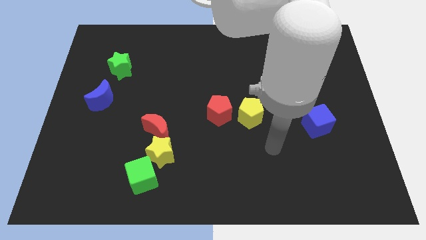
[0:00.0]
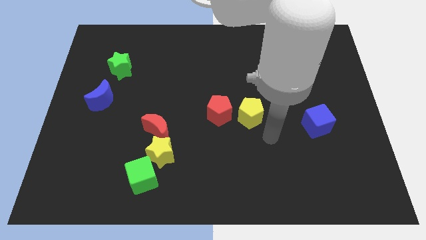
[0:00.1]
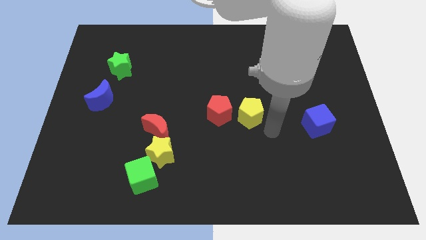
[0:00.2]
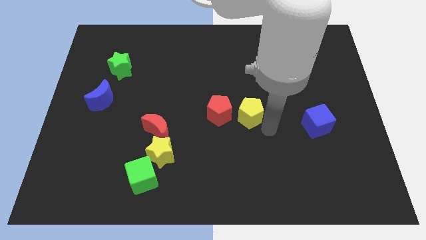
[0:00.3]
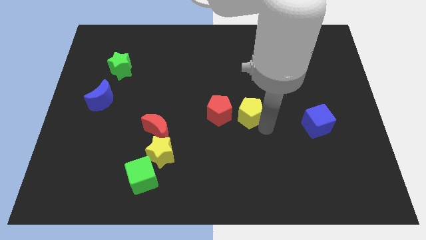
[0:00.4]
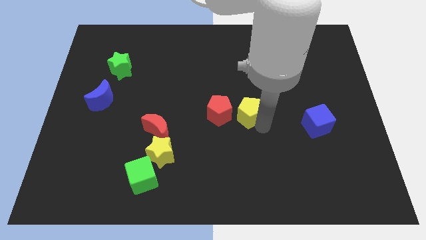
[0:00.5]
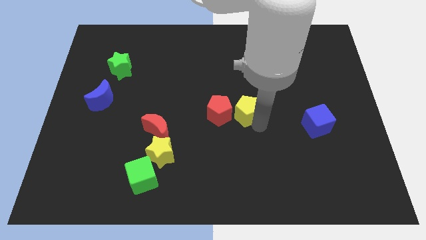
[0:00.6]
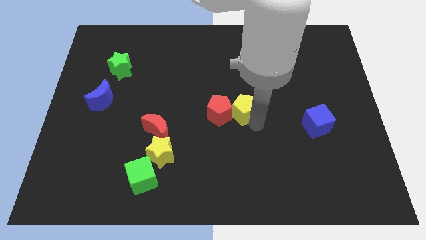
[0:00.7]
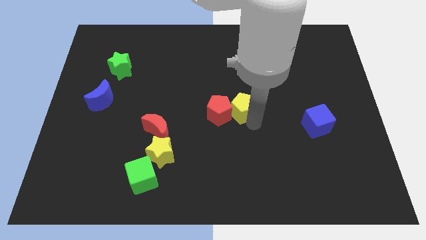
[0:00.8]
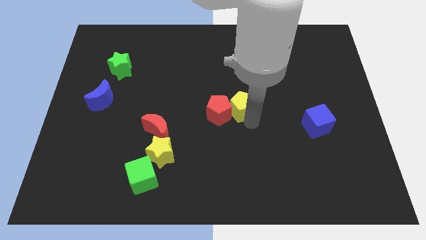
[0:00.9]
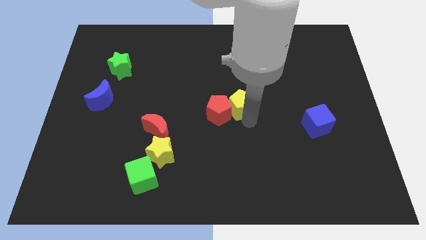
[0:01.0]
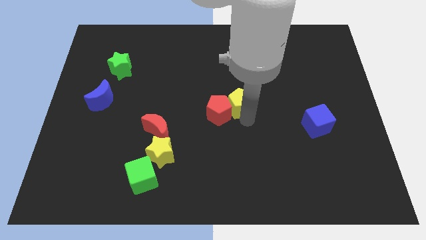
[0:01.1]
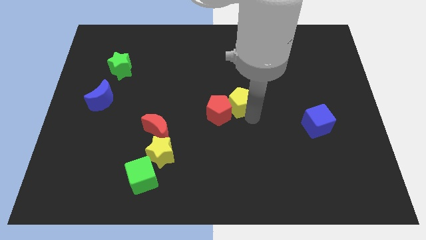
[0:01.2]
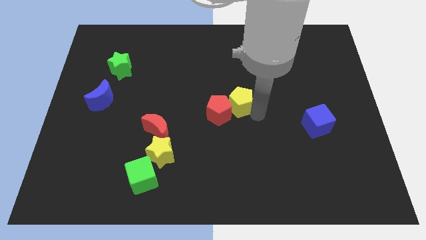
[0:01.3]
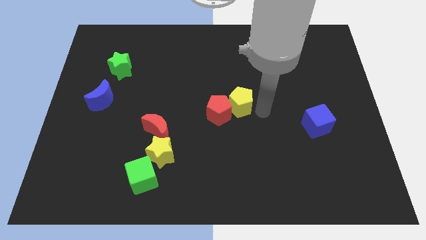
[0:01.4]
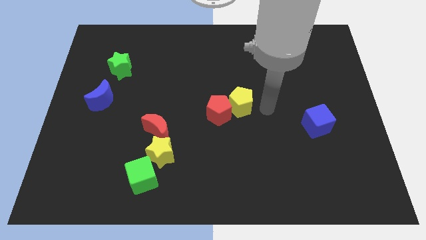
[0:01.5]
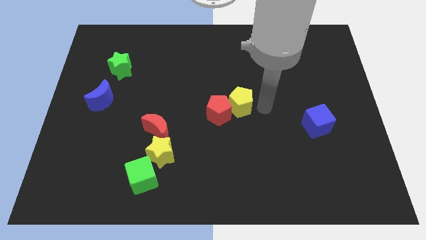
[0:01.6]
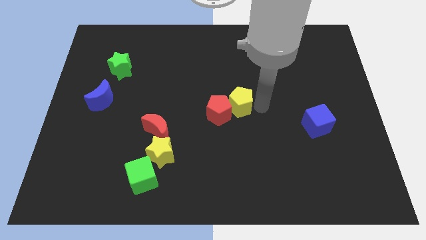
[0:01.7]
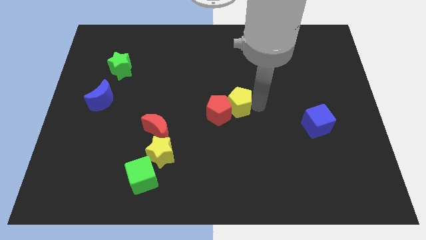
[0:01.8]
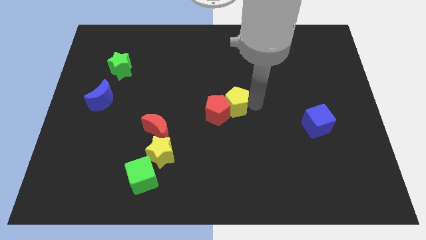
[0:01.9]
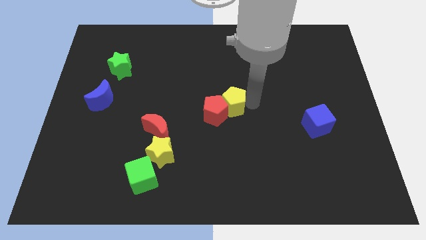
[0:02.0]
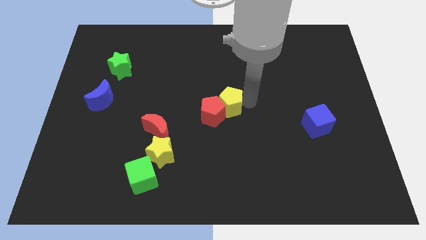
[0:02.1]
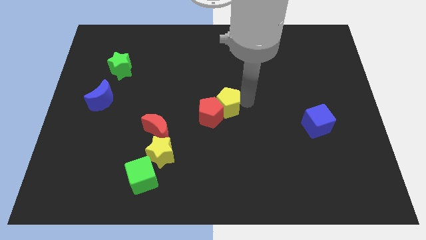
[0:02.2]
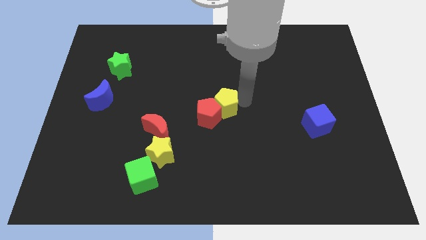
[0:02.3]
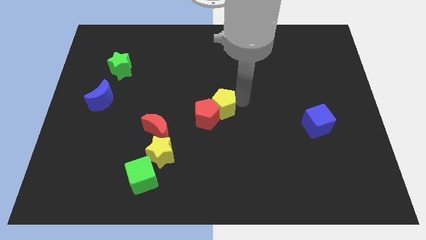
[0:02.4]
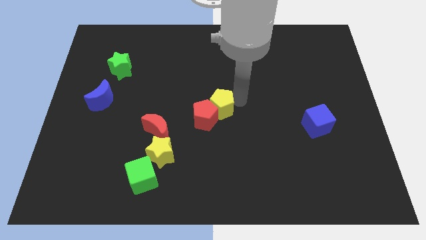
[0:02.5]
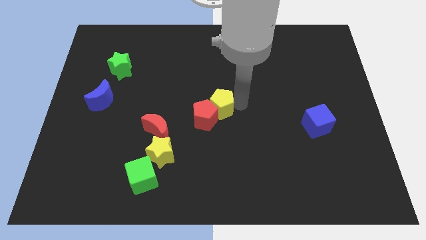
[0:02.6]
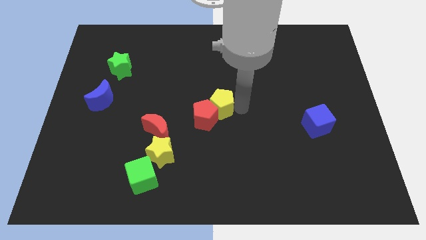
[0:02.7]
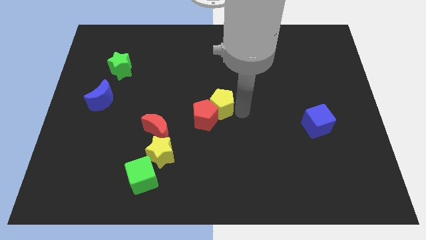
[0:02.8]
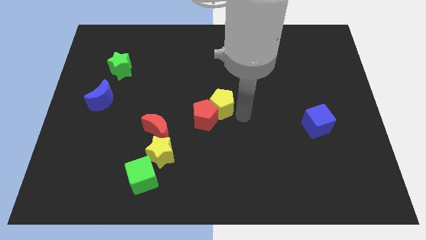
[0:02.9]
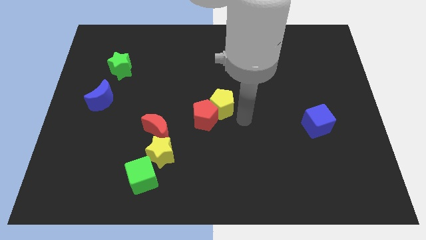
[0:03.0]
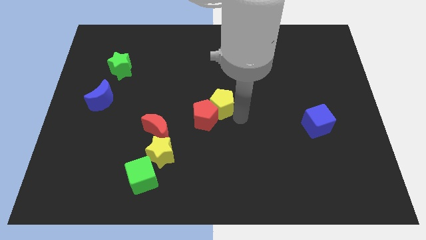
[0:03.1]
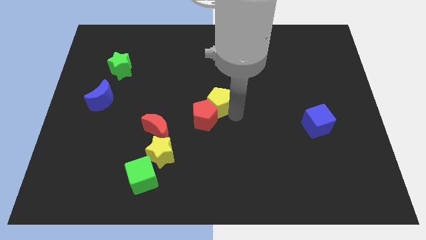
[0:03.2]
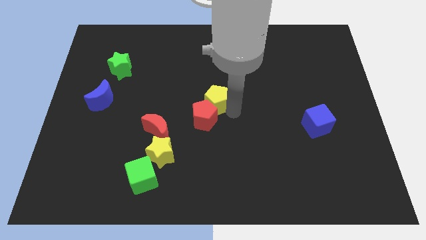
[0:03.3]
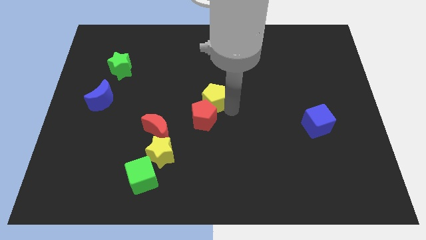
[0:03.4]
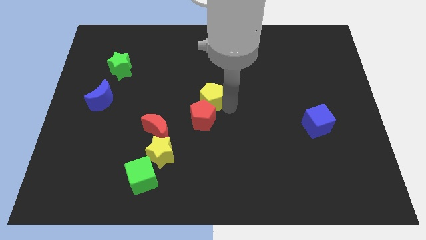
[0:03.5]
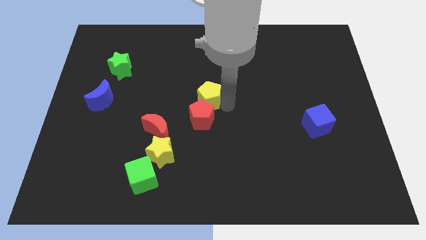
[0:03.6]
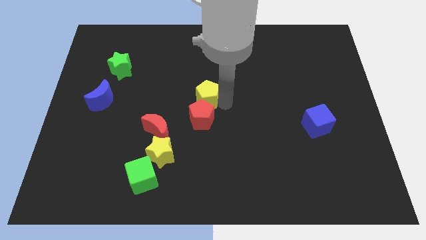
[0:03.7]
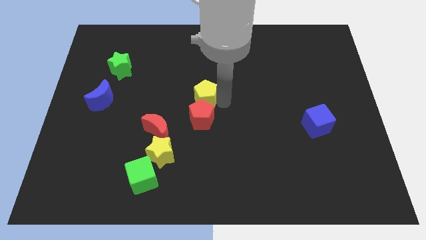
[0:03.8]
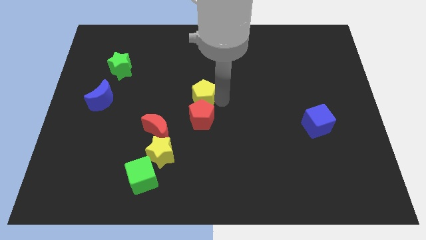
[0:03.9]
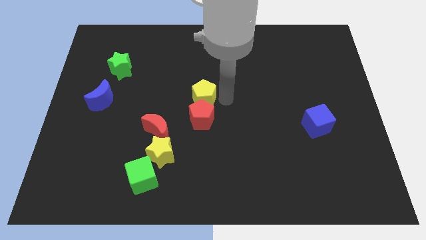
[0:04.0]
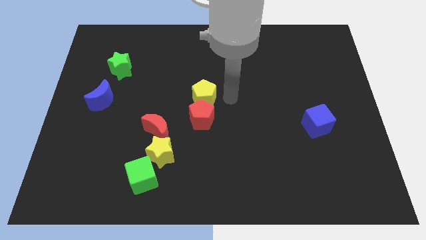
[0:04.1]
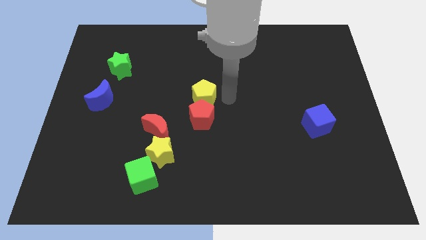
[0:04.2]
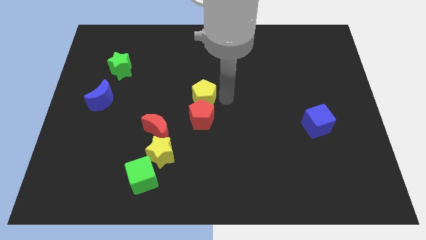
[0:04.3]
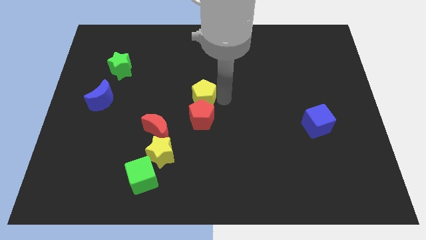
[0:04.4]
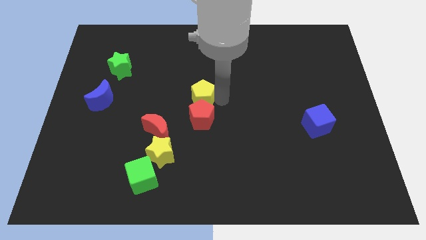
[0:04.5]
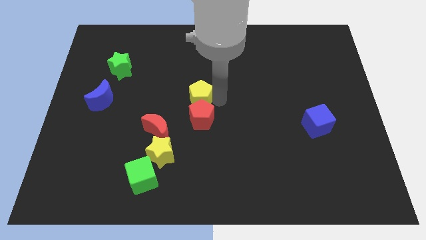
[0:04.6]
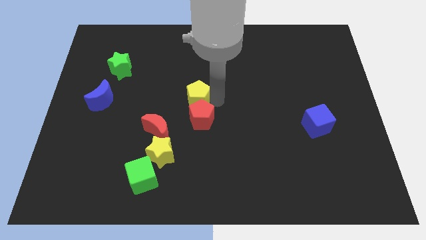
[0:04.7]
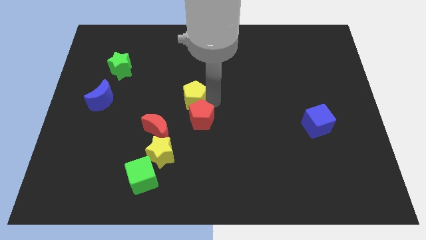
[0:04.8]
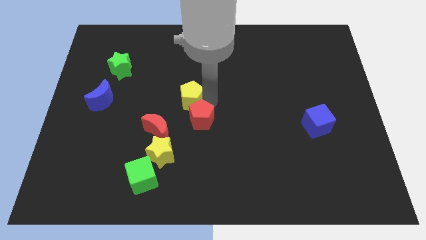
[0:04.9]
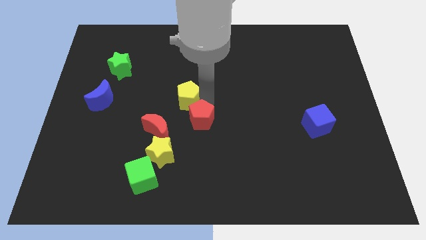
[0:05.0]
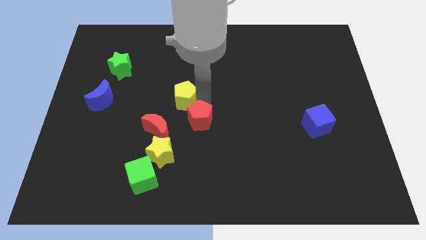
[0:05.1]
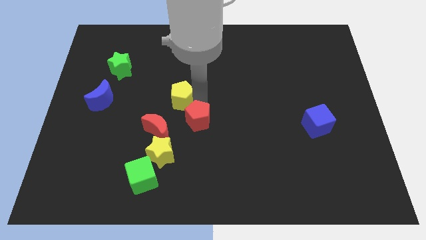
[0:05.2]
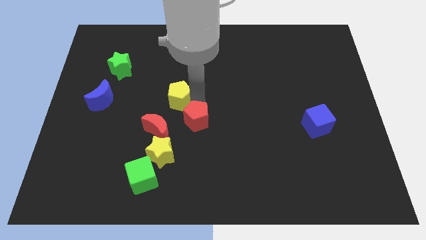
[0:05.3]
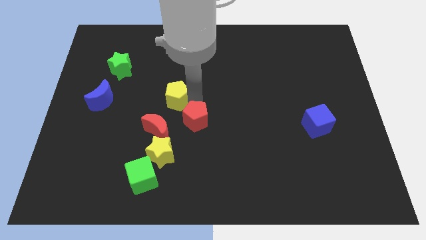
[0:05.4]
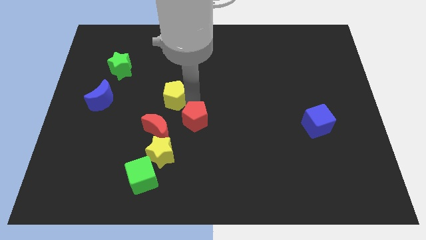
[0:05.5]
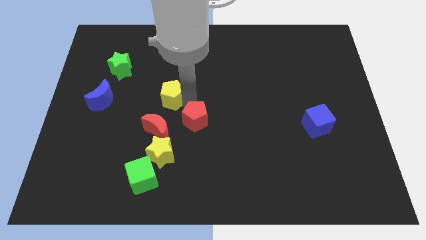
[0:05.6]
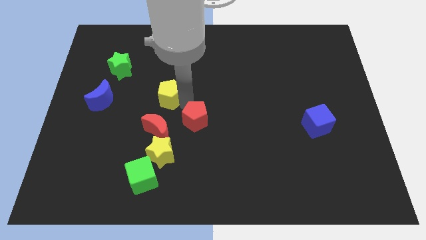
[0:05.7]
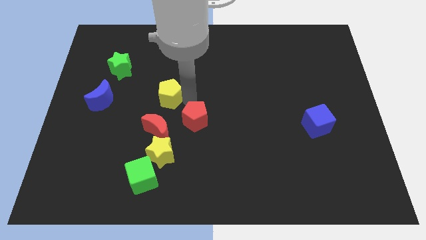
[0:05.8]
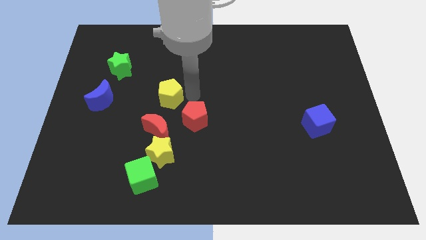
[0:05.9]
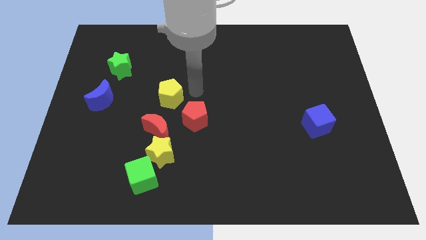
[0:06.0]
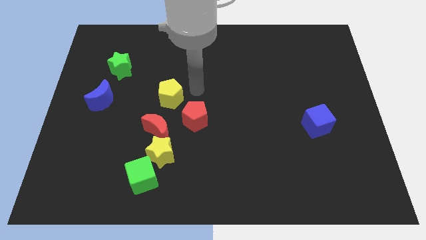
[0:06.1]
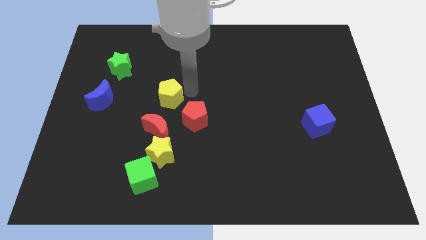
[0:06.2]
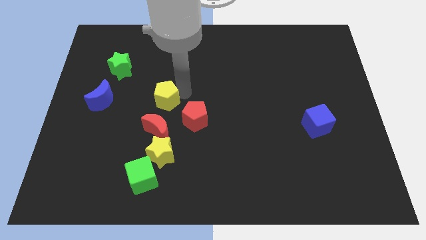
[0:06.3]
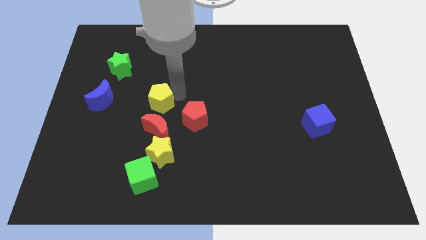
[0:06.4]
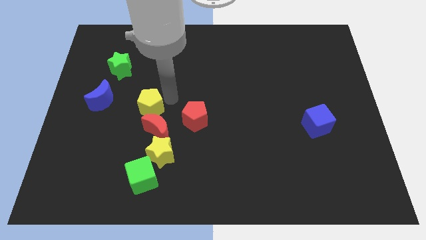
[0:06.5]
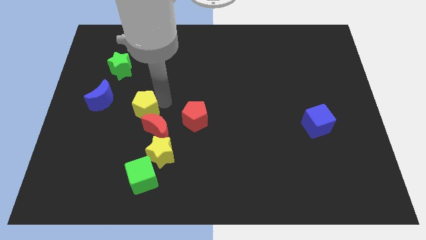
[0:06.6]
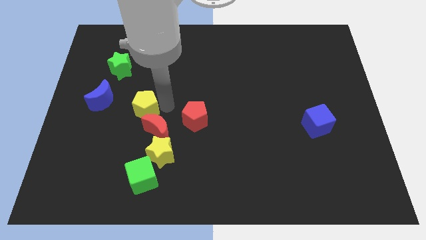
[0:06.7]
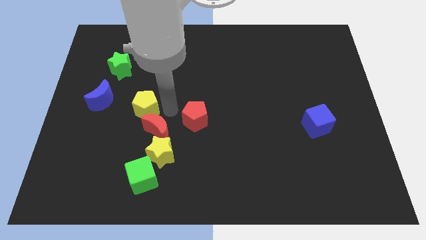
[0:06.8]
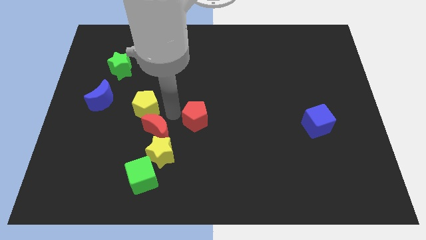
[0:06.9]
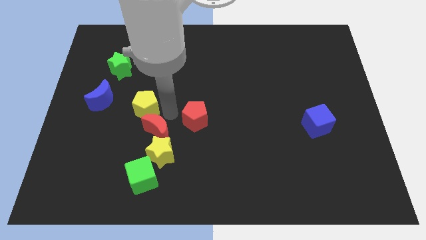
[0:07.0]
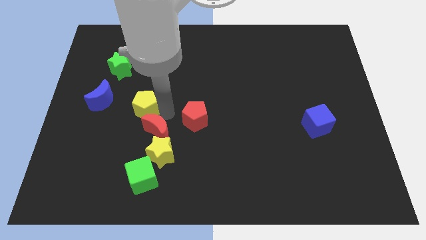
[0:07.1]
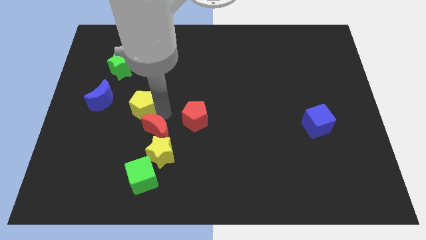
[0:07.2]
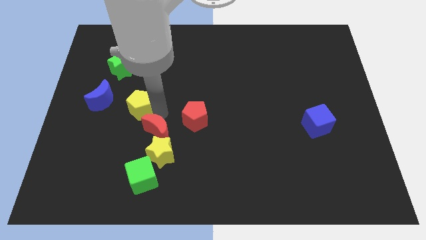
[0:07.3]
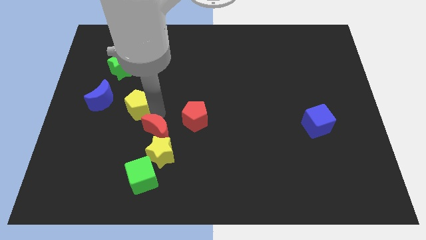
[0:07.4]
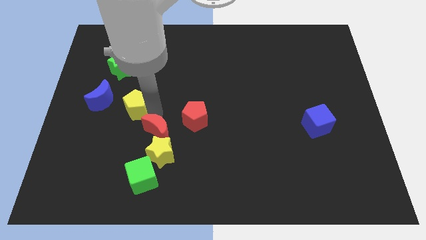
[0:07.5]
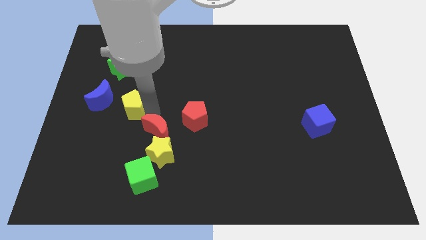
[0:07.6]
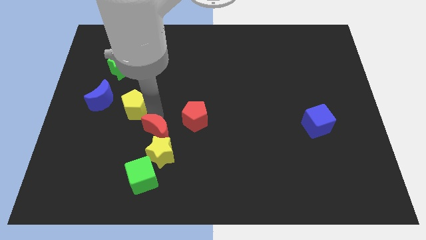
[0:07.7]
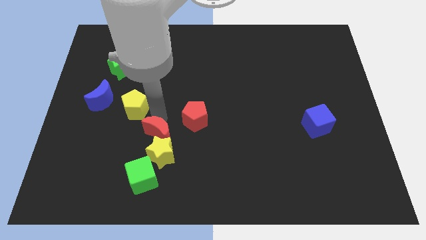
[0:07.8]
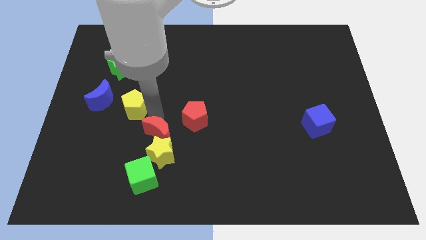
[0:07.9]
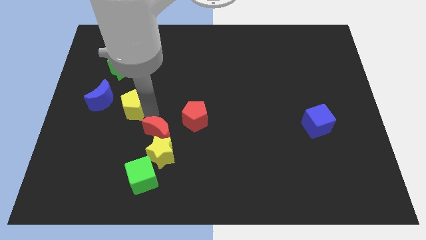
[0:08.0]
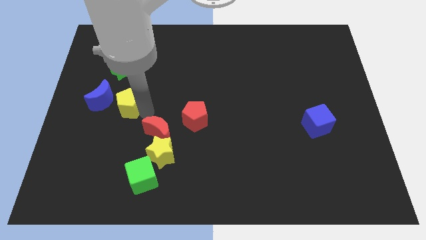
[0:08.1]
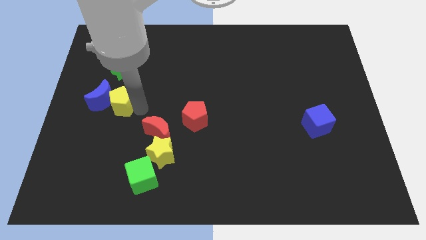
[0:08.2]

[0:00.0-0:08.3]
push the yellow pentagon towards the blue moon
